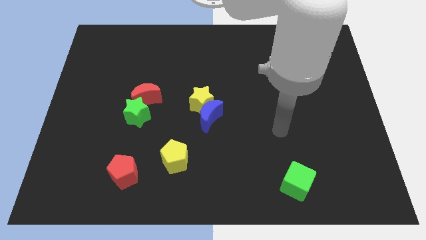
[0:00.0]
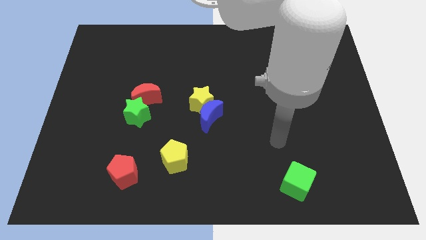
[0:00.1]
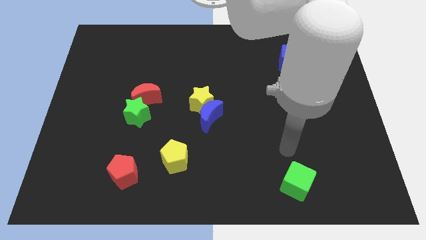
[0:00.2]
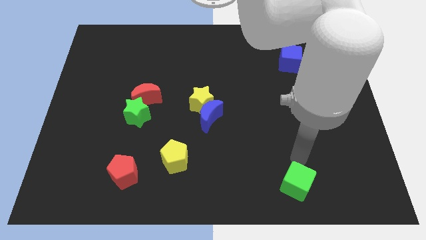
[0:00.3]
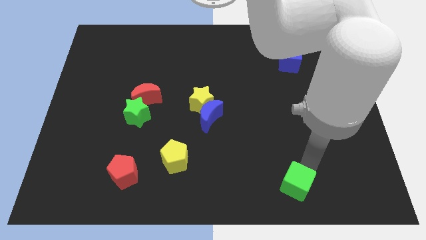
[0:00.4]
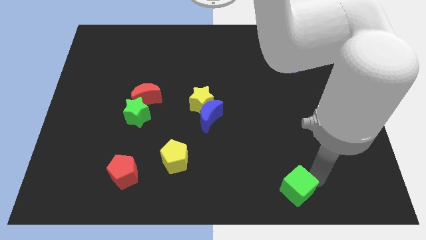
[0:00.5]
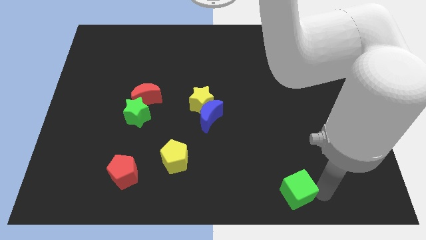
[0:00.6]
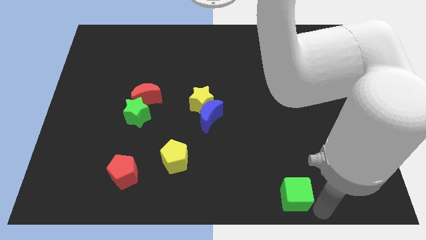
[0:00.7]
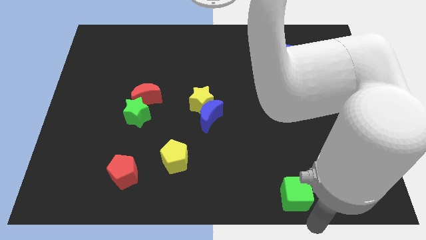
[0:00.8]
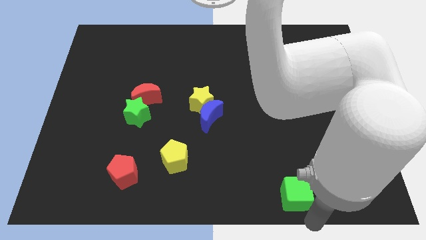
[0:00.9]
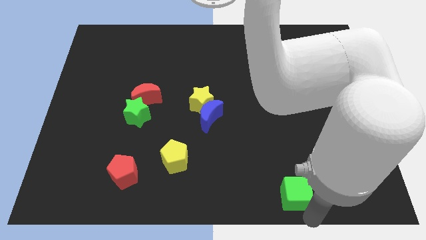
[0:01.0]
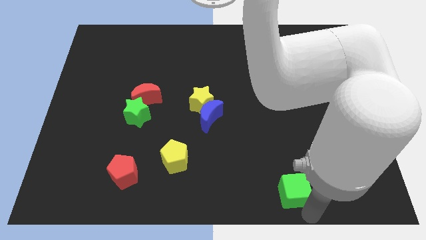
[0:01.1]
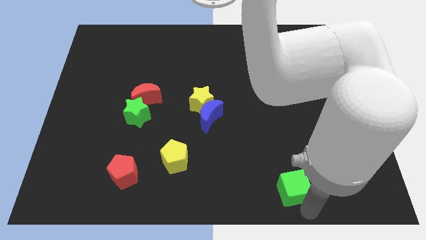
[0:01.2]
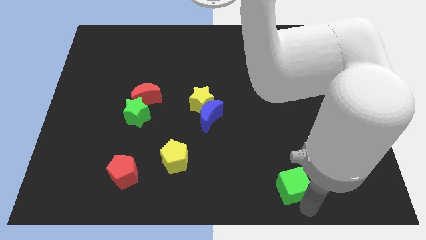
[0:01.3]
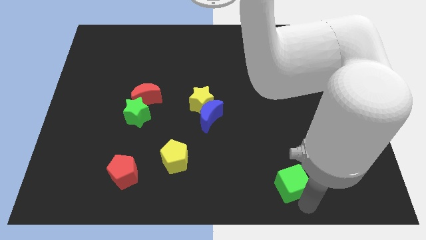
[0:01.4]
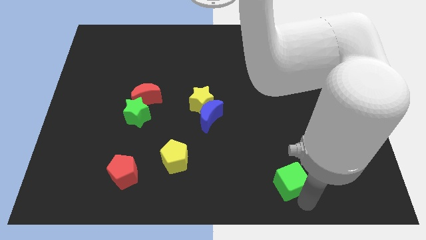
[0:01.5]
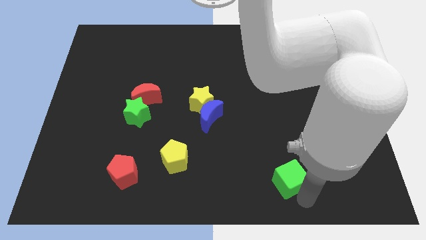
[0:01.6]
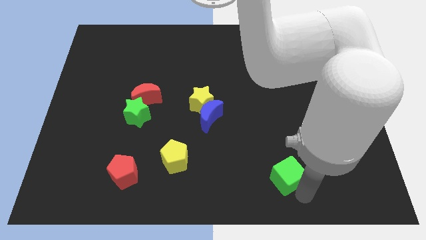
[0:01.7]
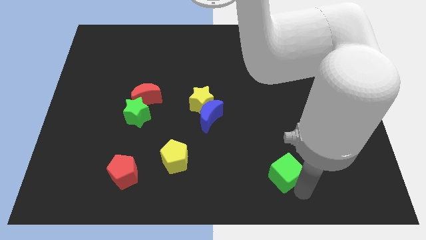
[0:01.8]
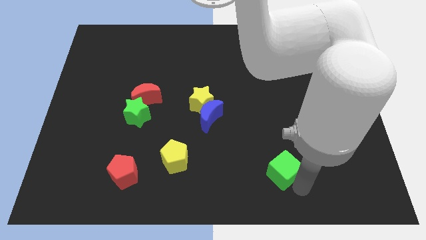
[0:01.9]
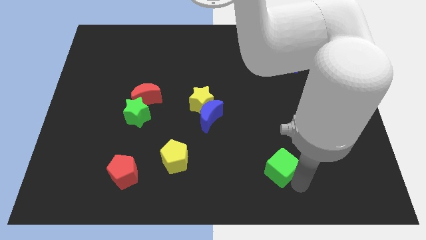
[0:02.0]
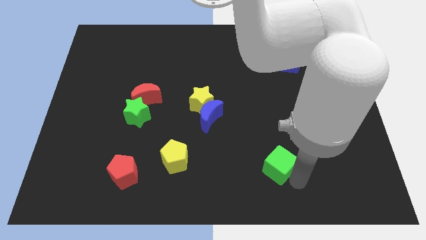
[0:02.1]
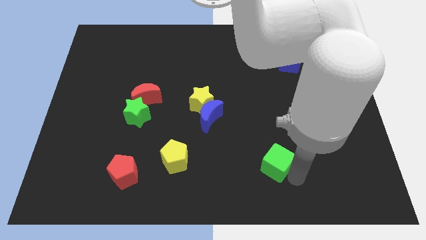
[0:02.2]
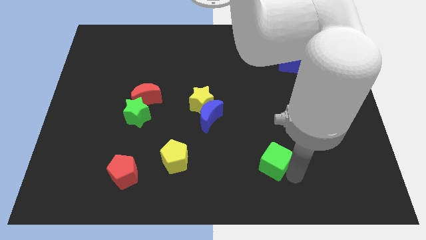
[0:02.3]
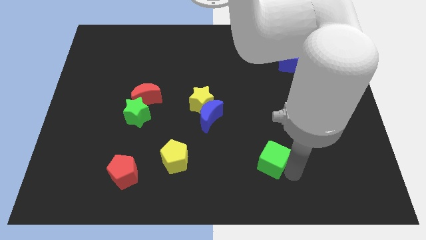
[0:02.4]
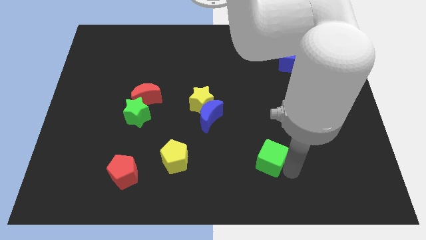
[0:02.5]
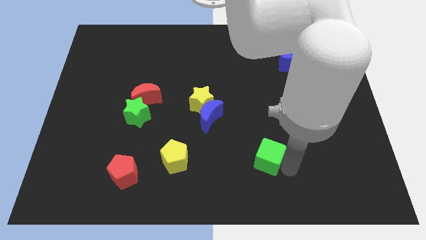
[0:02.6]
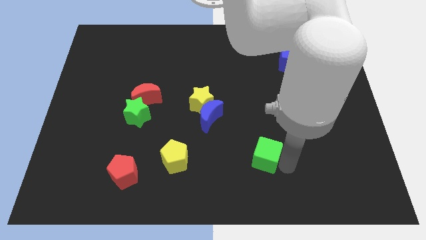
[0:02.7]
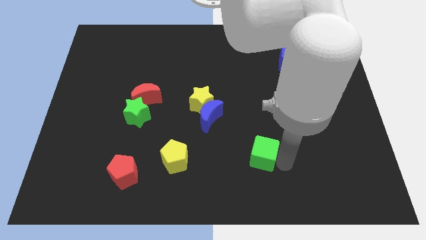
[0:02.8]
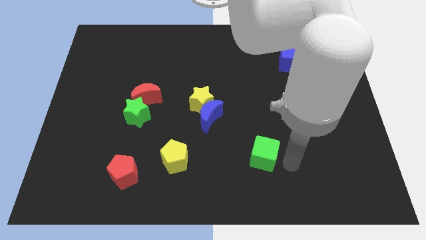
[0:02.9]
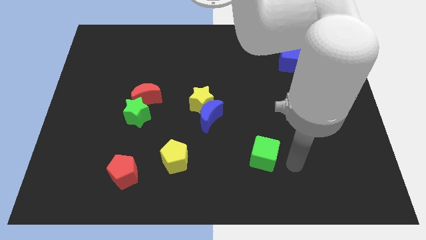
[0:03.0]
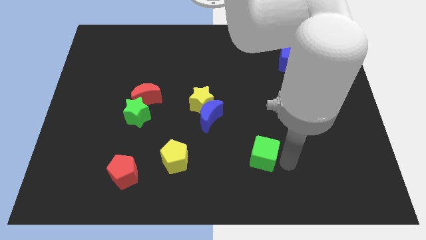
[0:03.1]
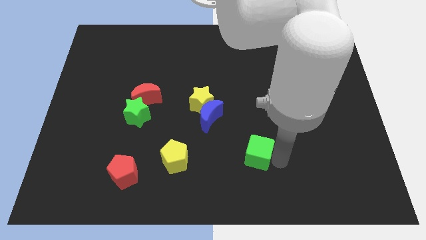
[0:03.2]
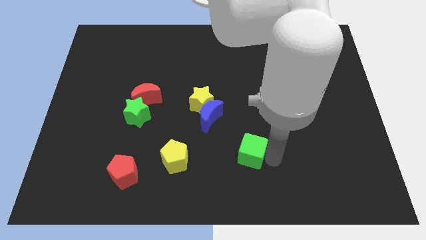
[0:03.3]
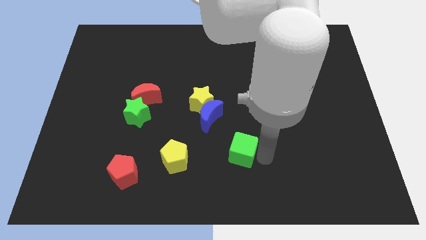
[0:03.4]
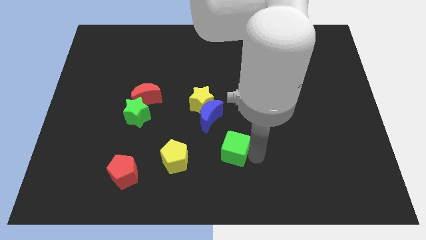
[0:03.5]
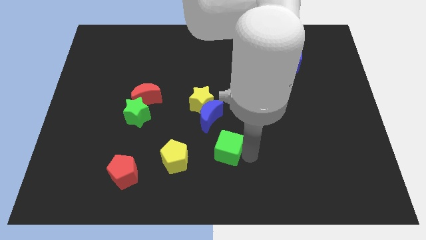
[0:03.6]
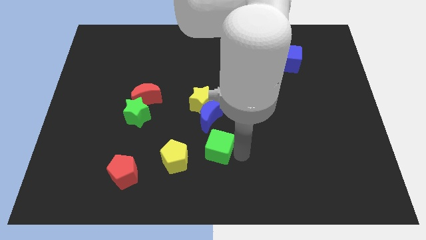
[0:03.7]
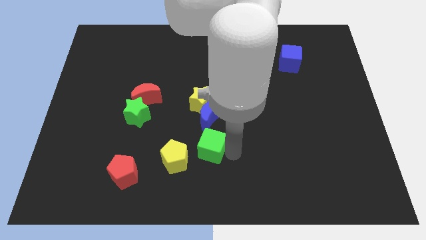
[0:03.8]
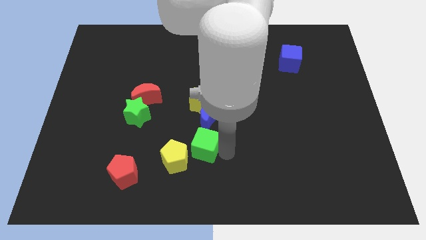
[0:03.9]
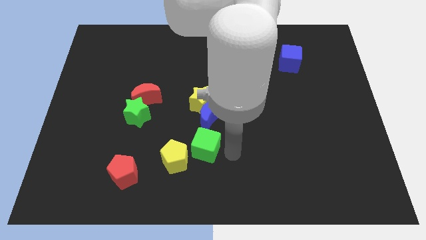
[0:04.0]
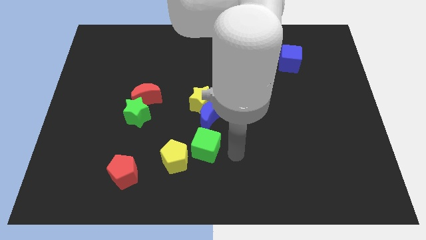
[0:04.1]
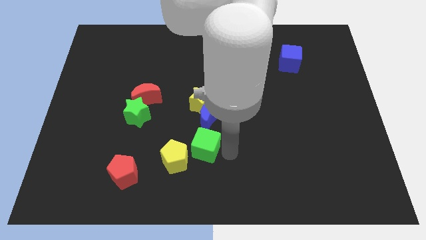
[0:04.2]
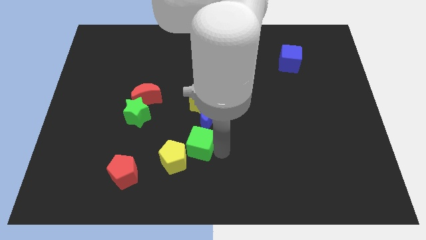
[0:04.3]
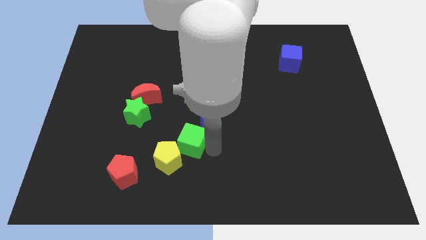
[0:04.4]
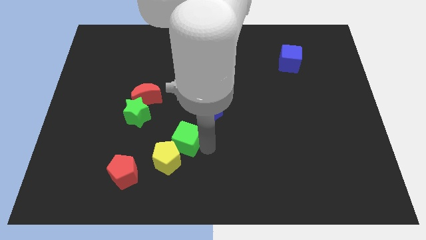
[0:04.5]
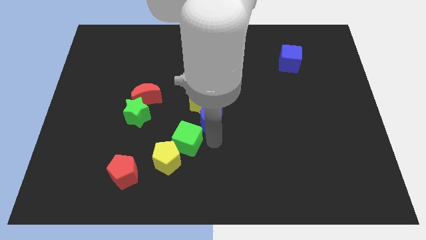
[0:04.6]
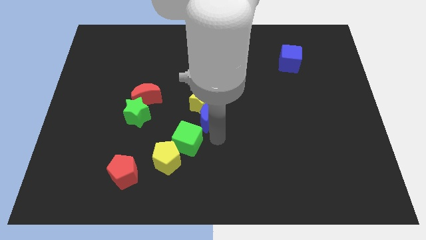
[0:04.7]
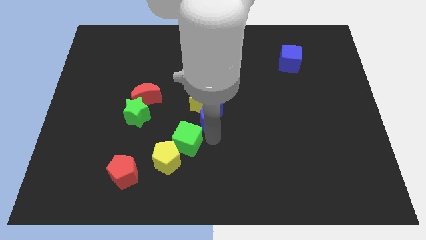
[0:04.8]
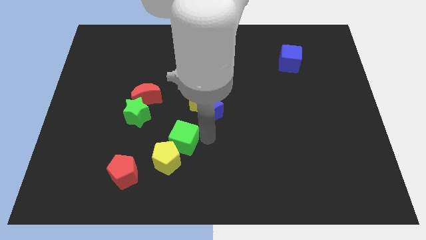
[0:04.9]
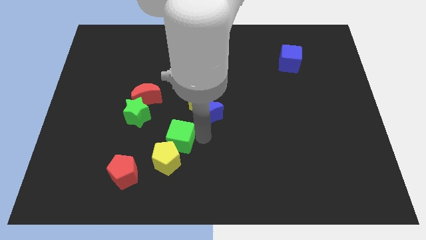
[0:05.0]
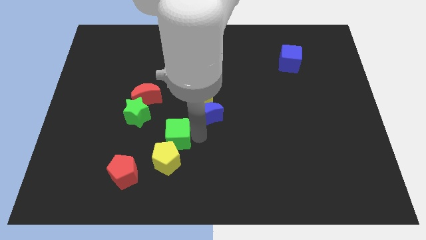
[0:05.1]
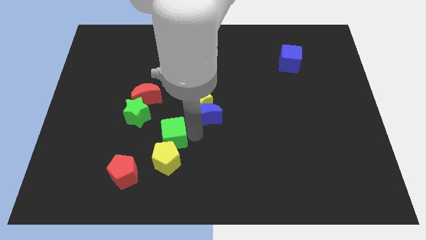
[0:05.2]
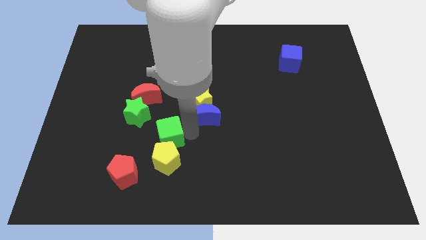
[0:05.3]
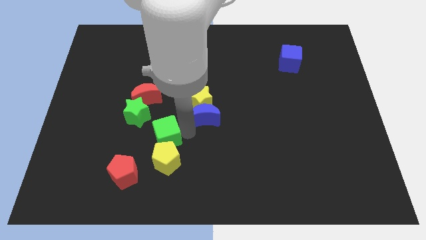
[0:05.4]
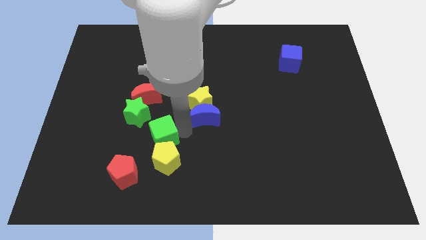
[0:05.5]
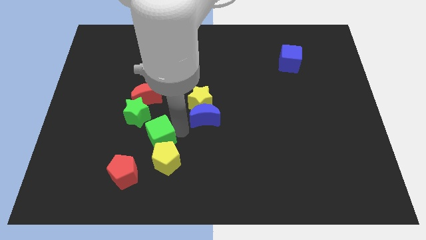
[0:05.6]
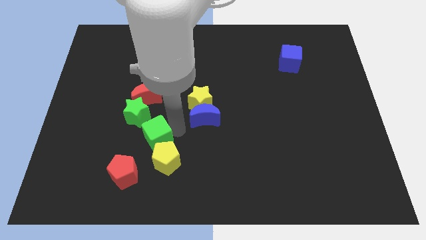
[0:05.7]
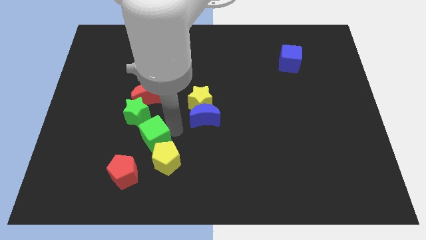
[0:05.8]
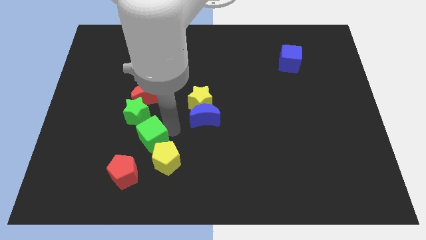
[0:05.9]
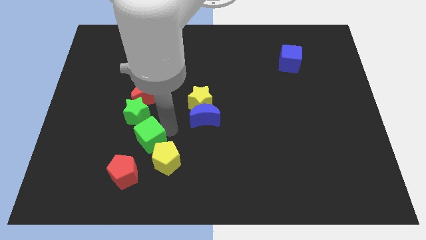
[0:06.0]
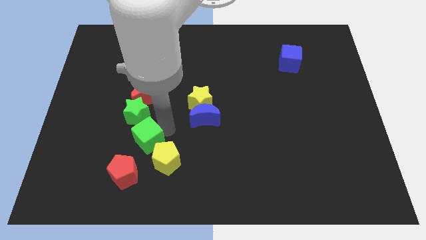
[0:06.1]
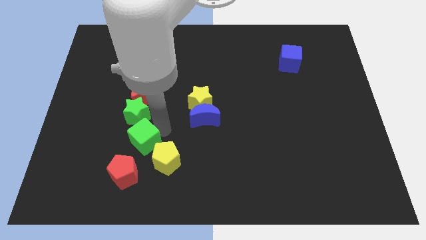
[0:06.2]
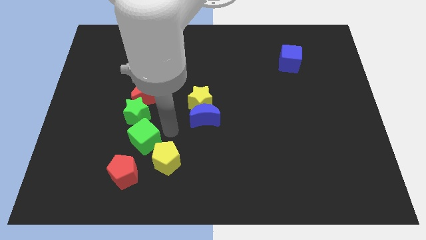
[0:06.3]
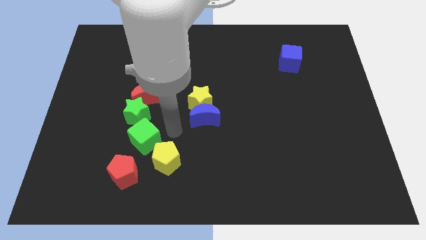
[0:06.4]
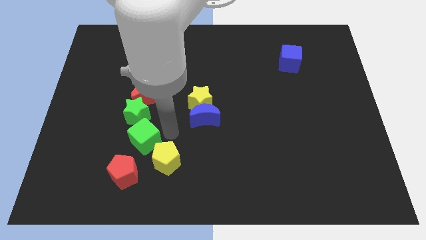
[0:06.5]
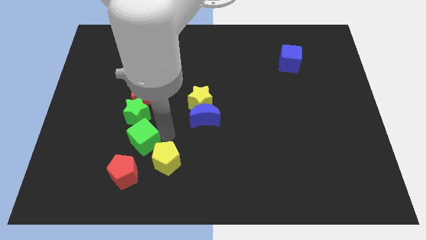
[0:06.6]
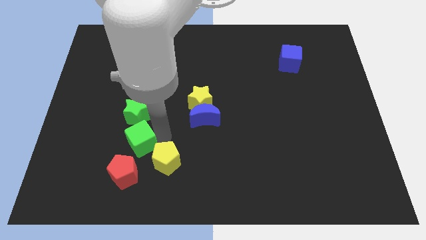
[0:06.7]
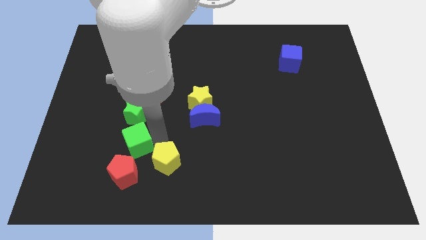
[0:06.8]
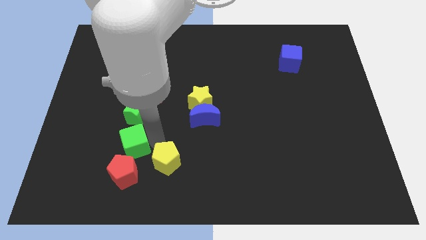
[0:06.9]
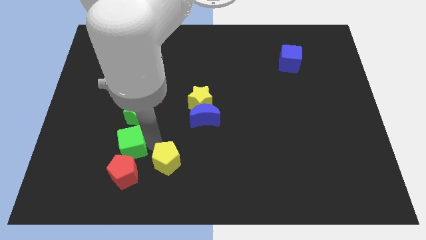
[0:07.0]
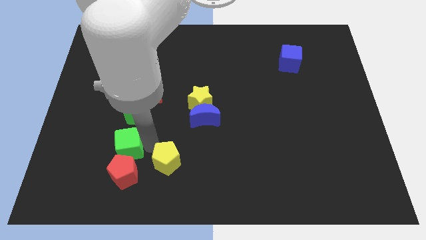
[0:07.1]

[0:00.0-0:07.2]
move the green cube diagonally up and to the left of the red pentagon
